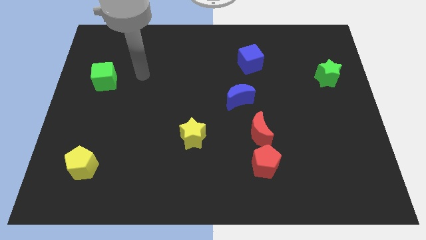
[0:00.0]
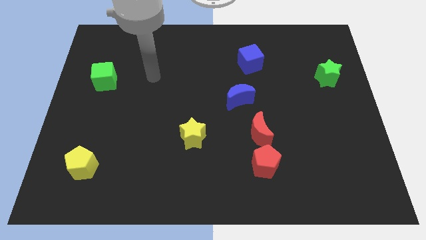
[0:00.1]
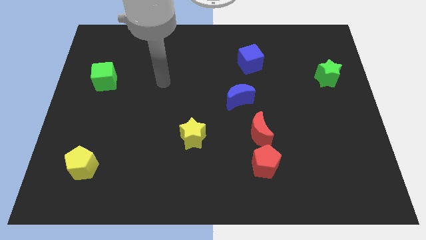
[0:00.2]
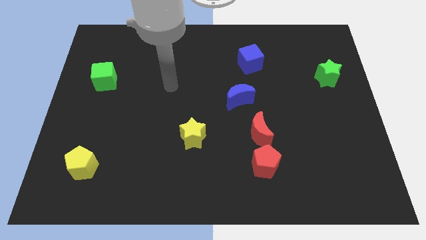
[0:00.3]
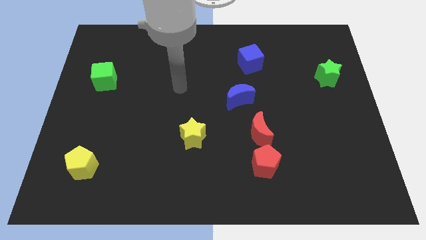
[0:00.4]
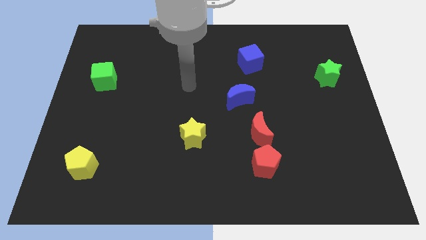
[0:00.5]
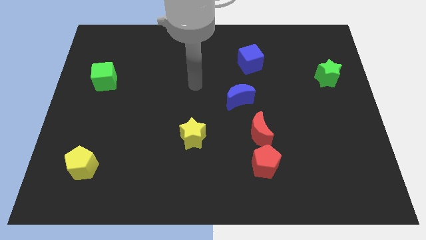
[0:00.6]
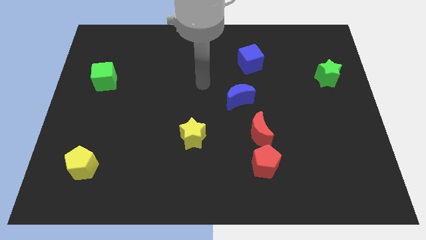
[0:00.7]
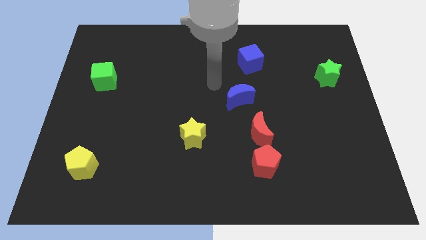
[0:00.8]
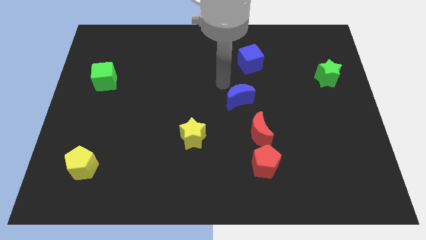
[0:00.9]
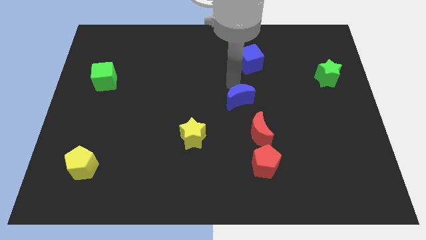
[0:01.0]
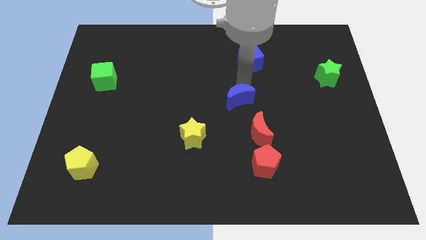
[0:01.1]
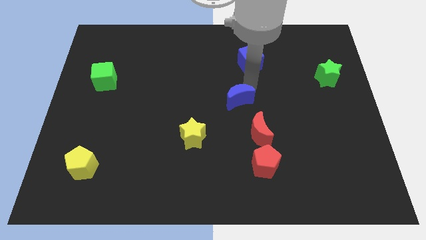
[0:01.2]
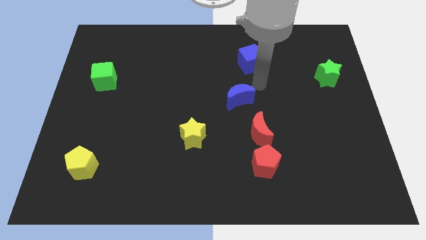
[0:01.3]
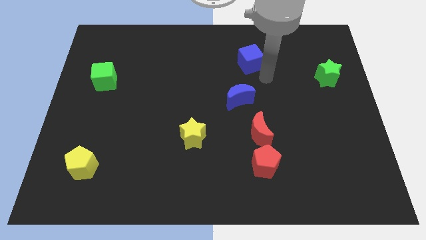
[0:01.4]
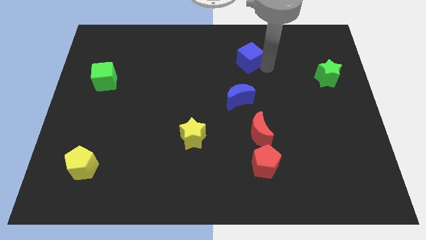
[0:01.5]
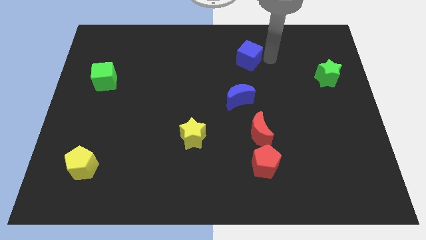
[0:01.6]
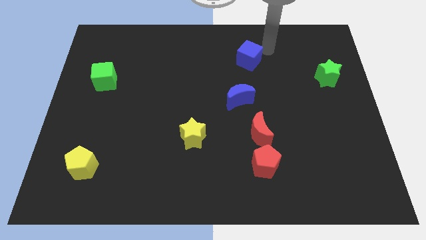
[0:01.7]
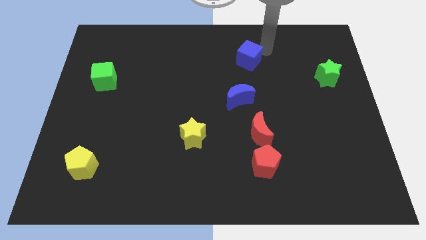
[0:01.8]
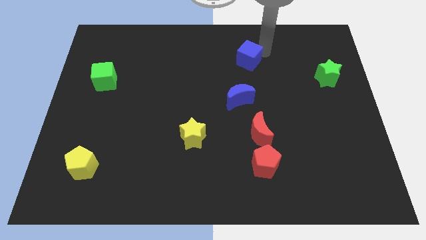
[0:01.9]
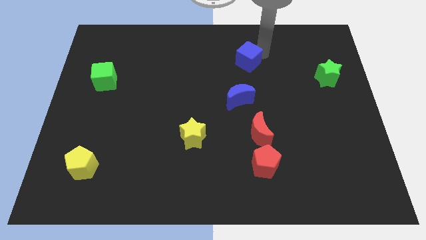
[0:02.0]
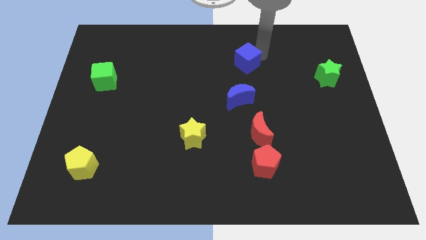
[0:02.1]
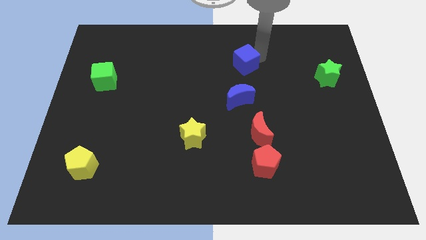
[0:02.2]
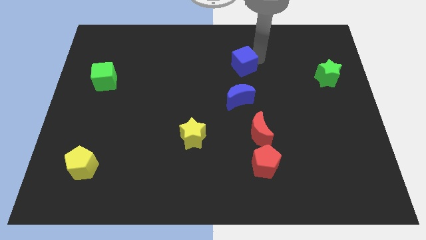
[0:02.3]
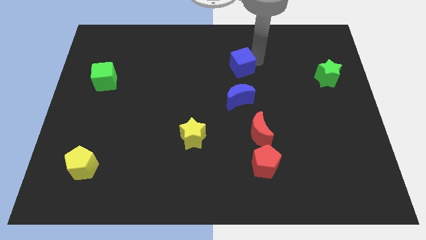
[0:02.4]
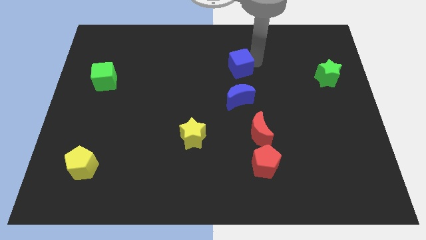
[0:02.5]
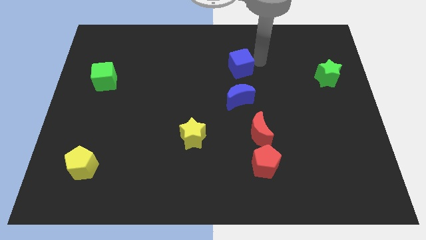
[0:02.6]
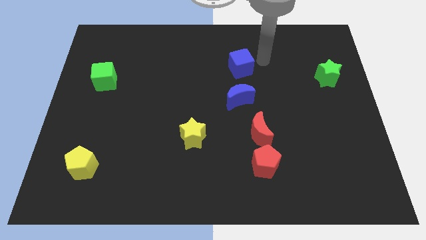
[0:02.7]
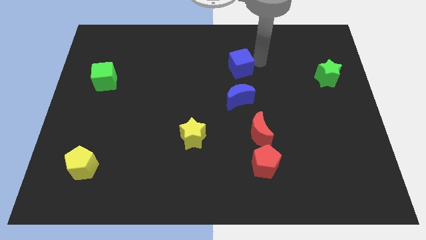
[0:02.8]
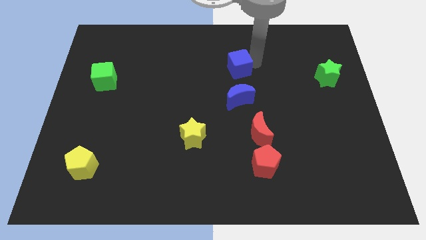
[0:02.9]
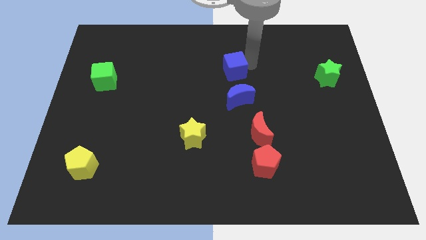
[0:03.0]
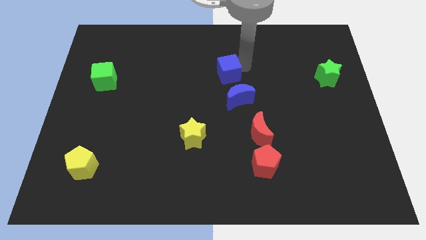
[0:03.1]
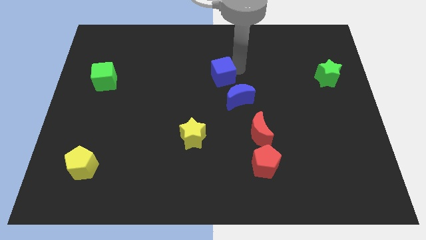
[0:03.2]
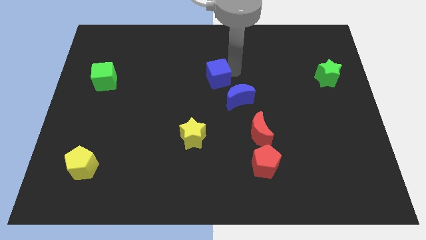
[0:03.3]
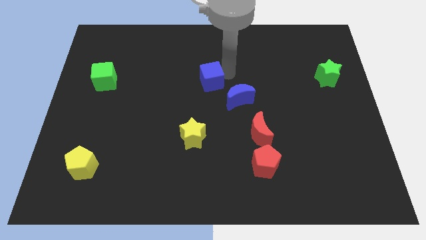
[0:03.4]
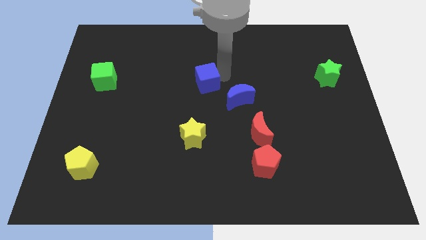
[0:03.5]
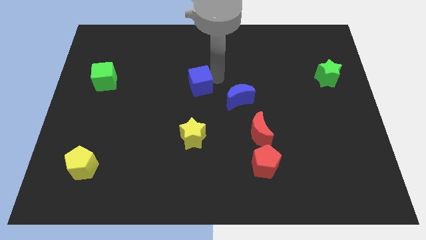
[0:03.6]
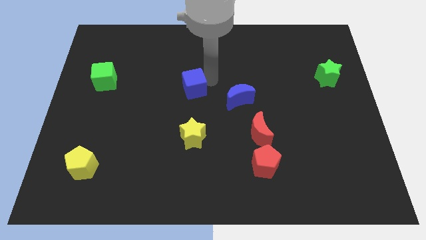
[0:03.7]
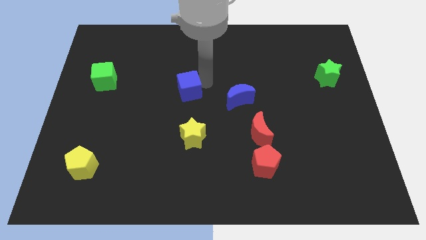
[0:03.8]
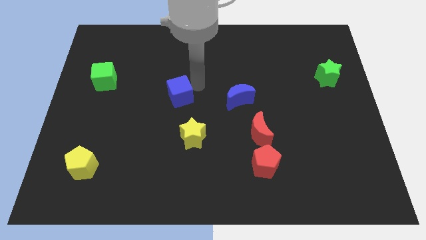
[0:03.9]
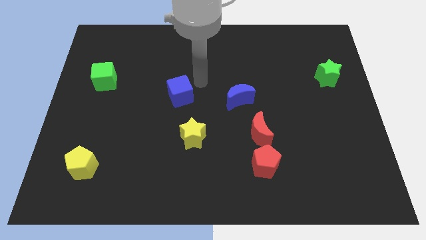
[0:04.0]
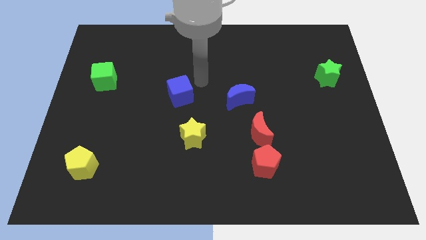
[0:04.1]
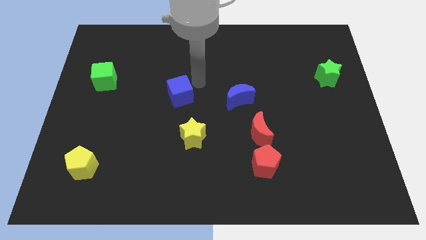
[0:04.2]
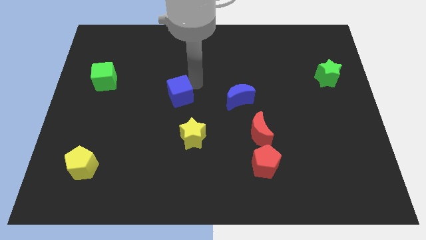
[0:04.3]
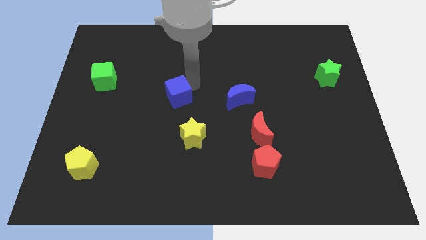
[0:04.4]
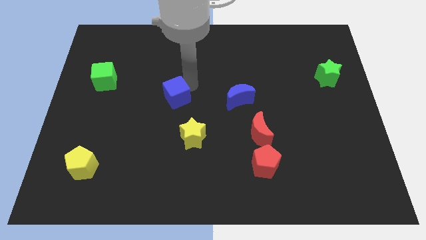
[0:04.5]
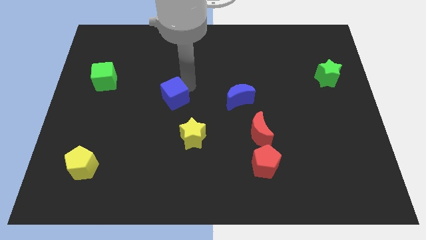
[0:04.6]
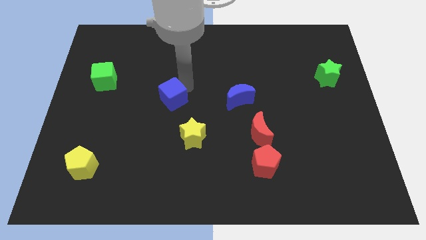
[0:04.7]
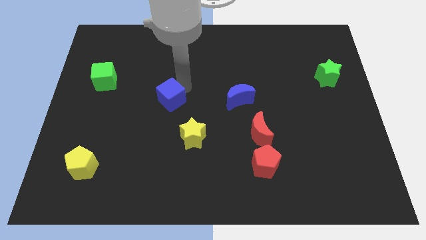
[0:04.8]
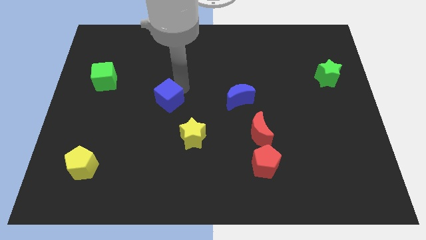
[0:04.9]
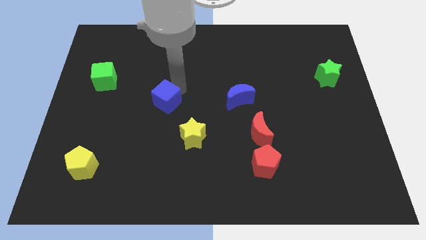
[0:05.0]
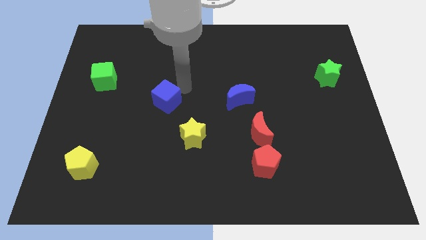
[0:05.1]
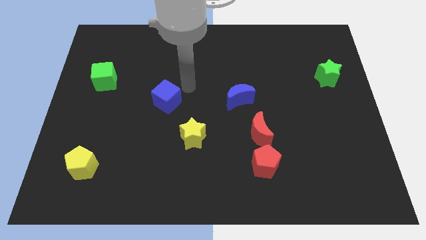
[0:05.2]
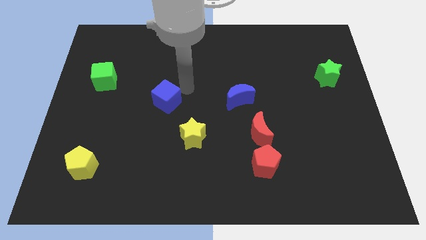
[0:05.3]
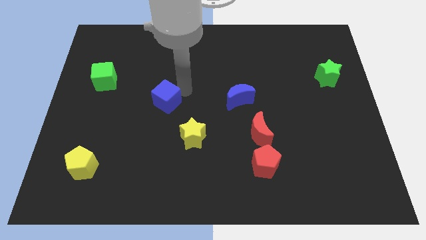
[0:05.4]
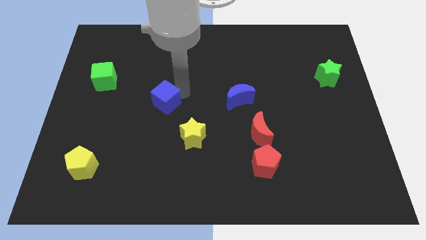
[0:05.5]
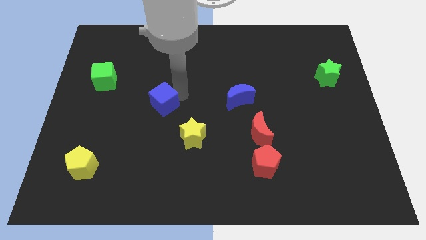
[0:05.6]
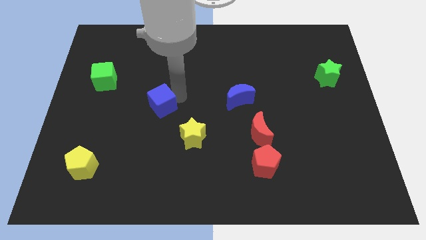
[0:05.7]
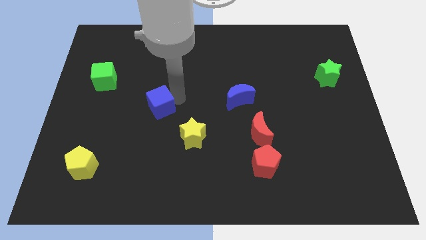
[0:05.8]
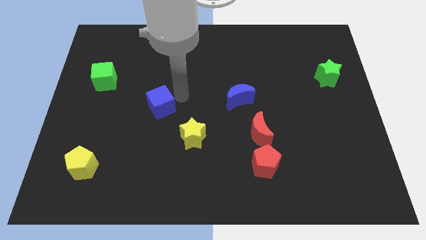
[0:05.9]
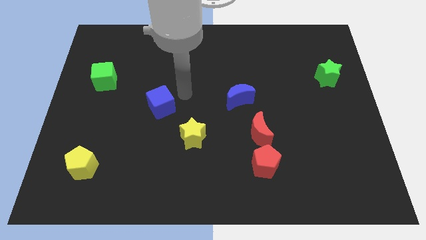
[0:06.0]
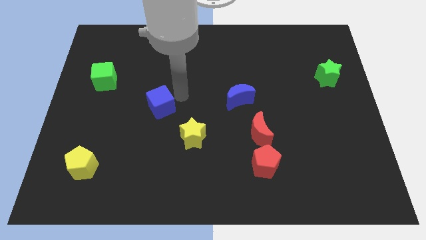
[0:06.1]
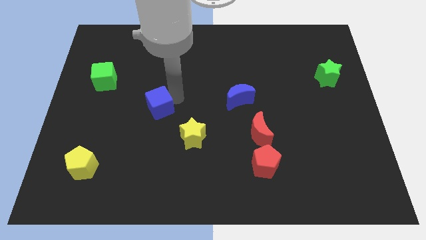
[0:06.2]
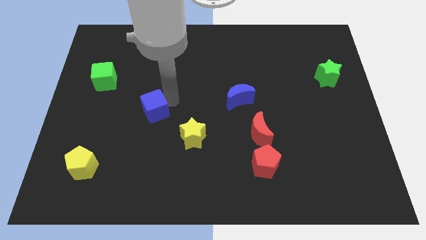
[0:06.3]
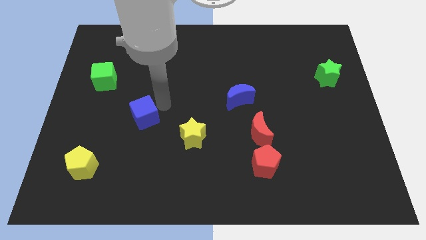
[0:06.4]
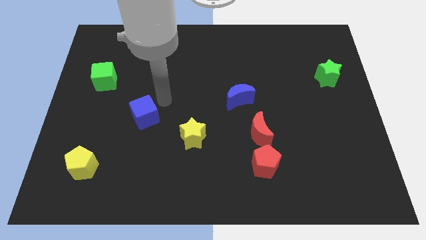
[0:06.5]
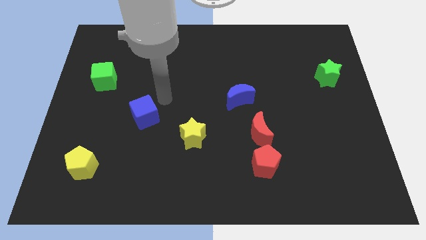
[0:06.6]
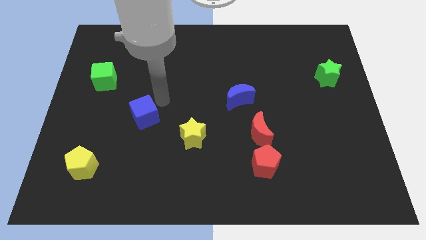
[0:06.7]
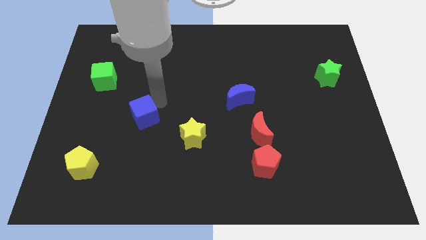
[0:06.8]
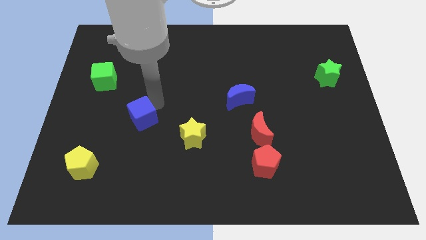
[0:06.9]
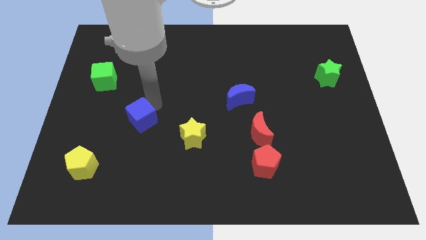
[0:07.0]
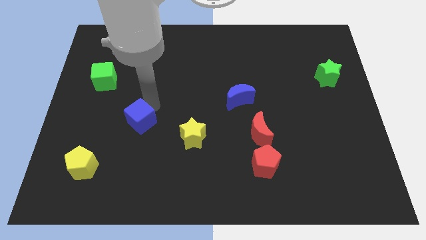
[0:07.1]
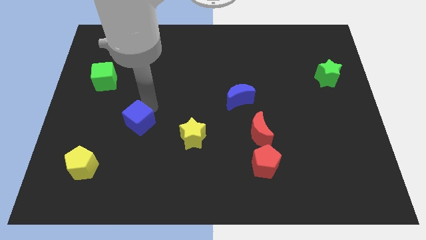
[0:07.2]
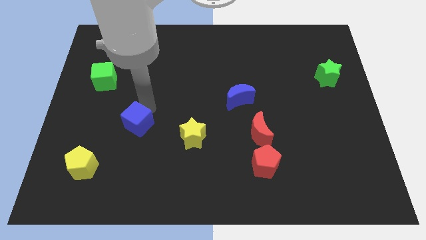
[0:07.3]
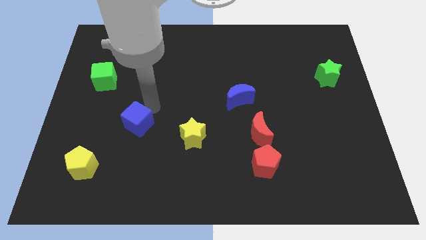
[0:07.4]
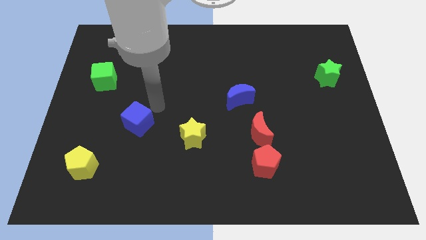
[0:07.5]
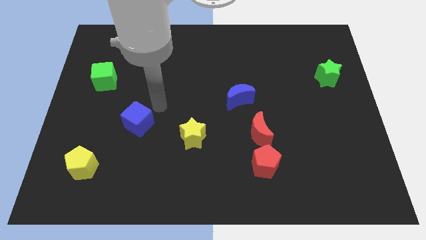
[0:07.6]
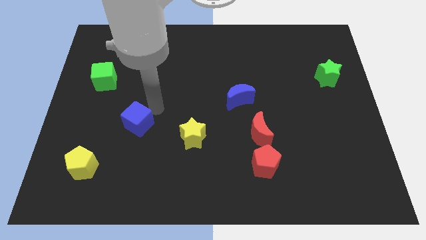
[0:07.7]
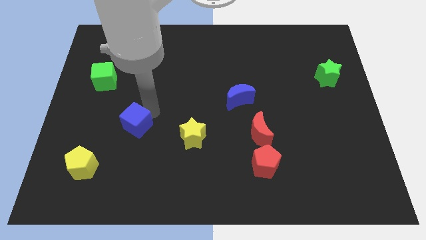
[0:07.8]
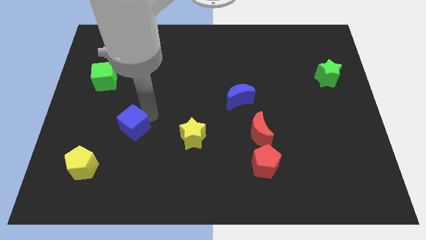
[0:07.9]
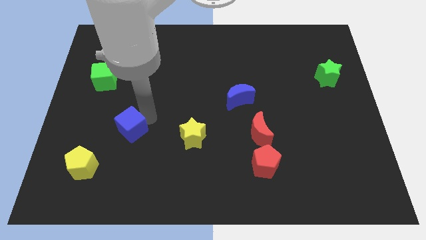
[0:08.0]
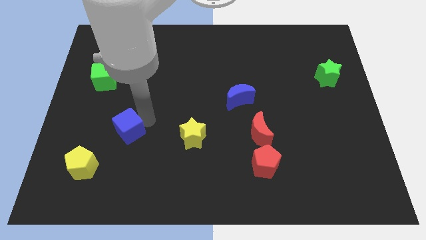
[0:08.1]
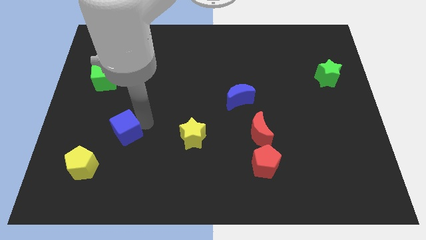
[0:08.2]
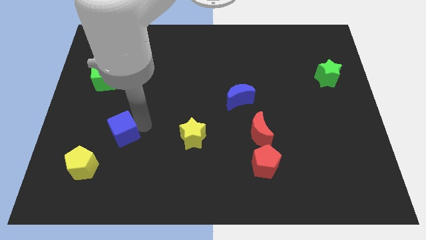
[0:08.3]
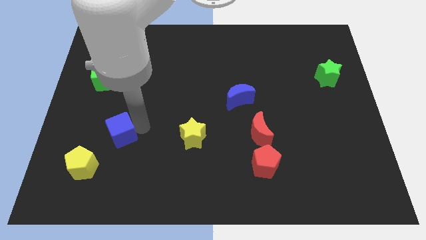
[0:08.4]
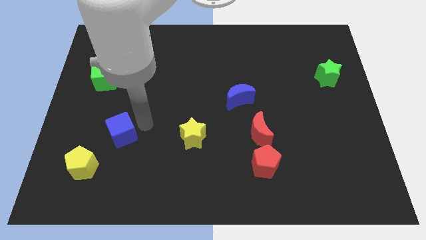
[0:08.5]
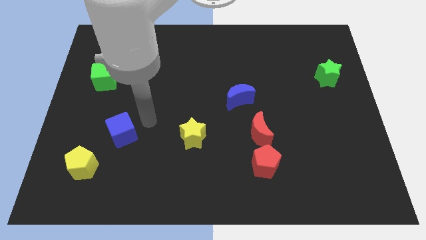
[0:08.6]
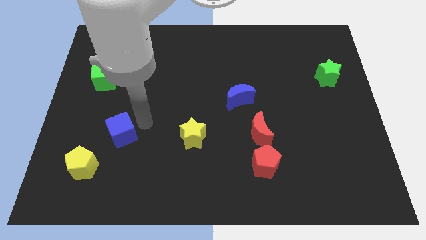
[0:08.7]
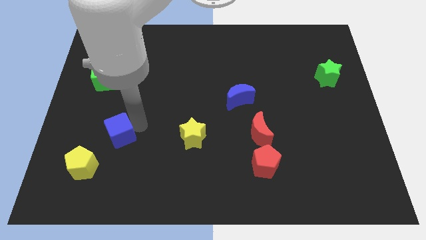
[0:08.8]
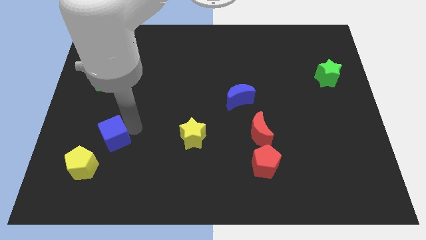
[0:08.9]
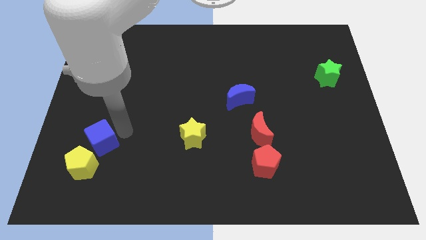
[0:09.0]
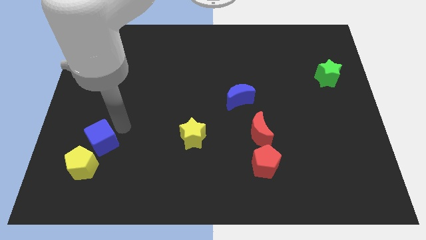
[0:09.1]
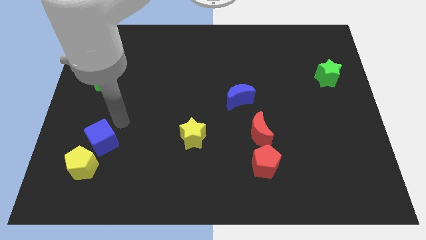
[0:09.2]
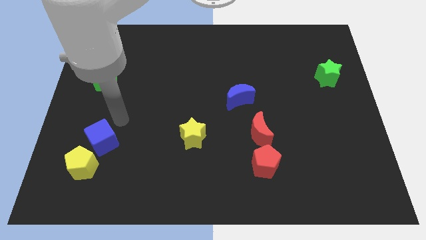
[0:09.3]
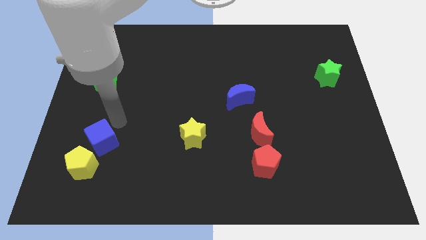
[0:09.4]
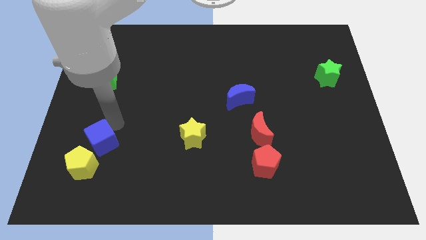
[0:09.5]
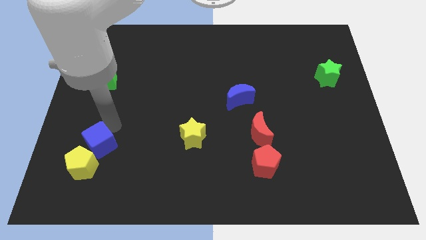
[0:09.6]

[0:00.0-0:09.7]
slide the blue cube next to the yellow pentagon
